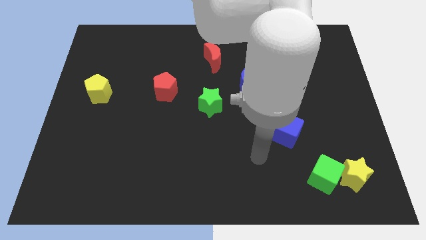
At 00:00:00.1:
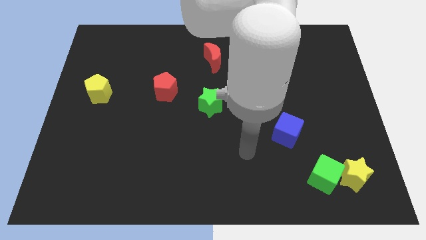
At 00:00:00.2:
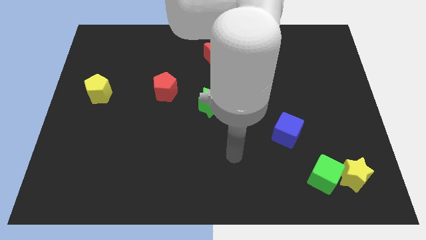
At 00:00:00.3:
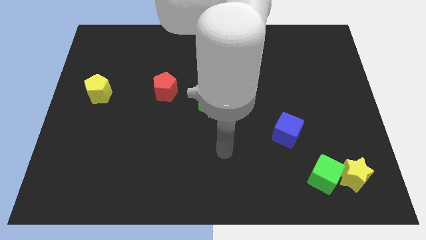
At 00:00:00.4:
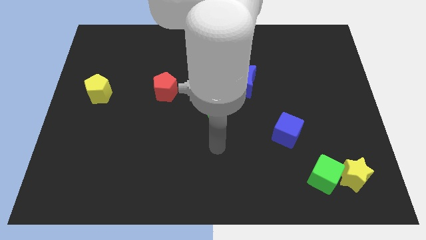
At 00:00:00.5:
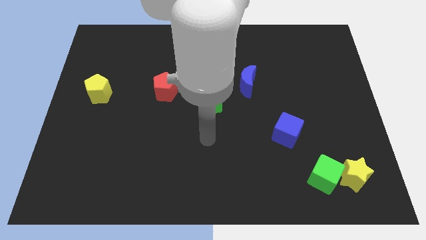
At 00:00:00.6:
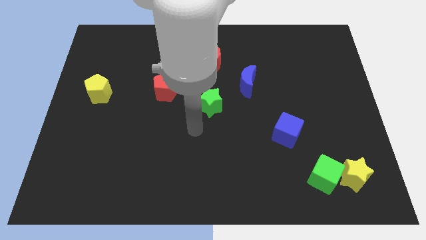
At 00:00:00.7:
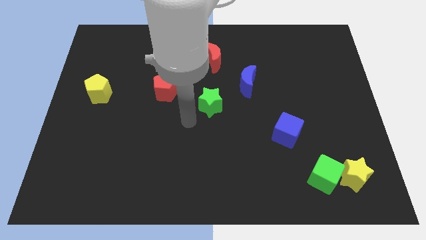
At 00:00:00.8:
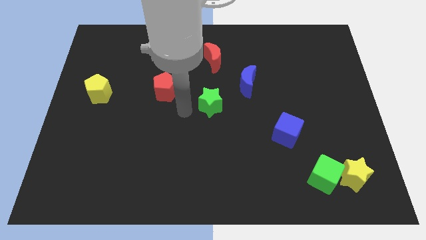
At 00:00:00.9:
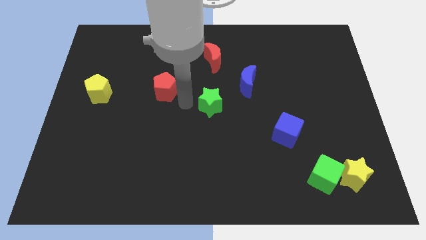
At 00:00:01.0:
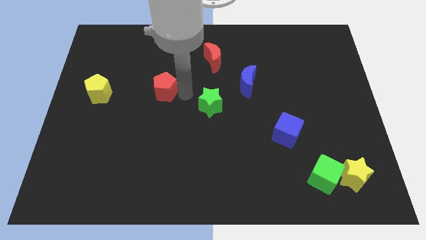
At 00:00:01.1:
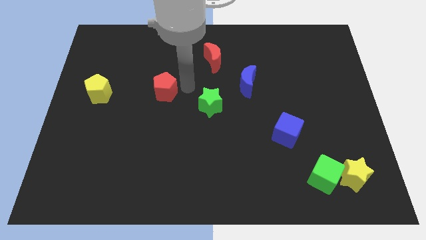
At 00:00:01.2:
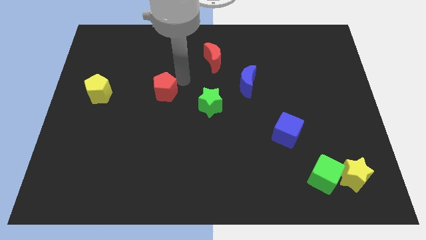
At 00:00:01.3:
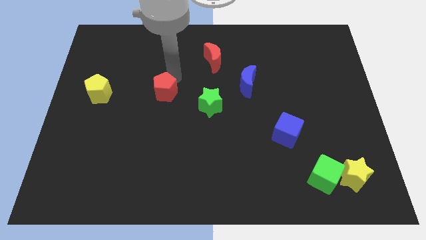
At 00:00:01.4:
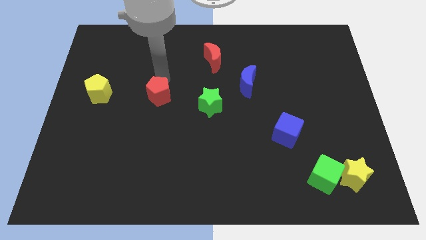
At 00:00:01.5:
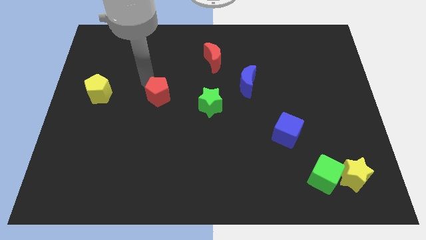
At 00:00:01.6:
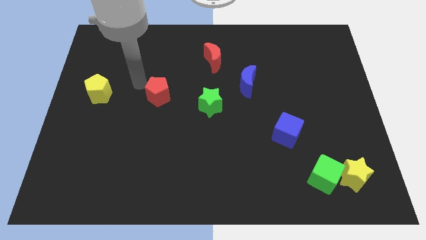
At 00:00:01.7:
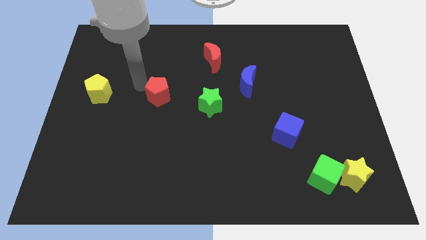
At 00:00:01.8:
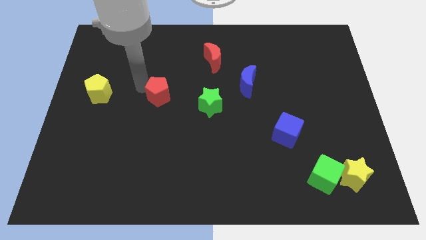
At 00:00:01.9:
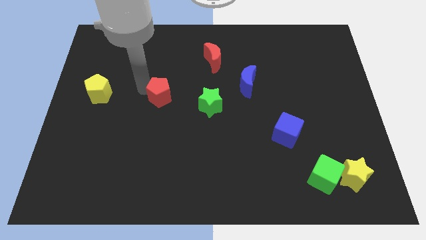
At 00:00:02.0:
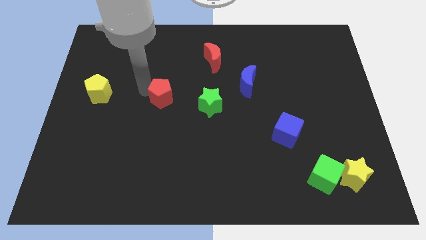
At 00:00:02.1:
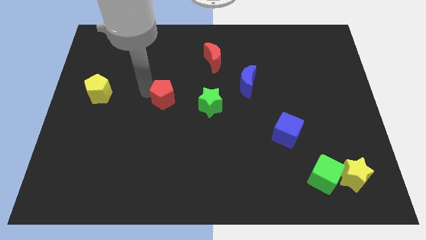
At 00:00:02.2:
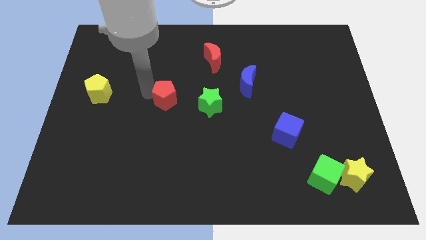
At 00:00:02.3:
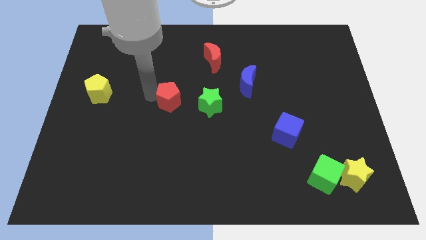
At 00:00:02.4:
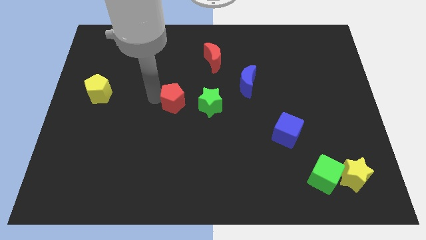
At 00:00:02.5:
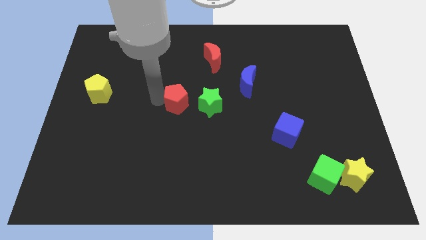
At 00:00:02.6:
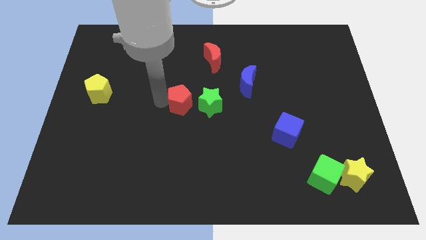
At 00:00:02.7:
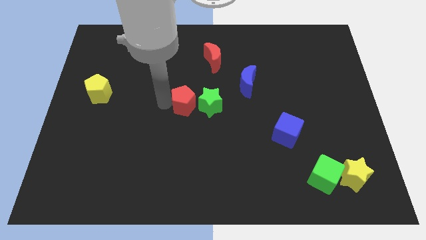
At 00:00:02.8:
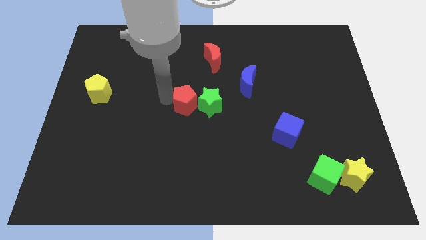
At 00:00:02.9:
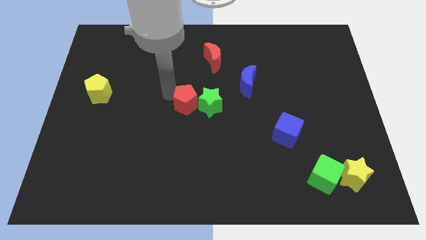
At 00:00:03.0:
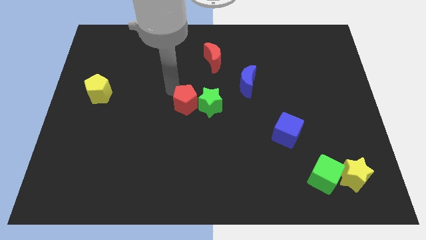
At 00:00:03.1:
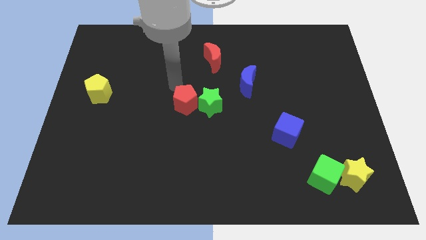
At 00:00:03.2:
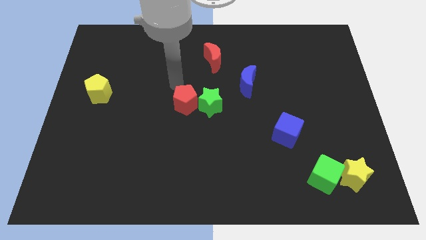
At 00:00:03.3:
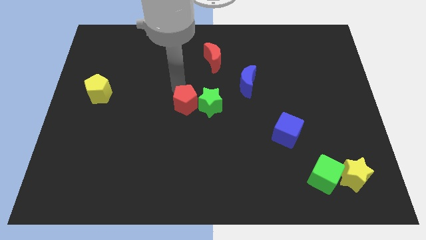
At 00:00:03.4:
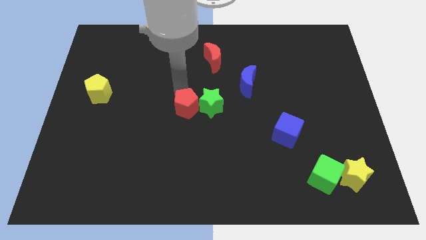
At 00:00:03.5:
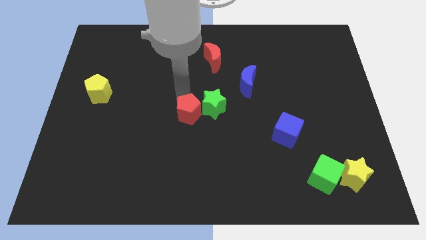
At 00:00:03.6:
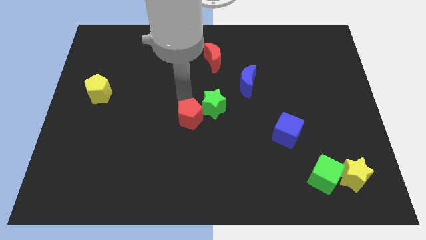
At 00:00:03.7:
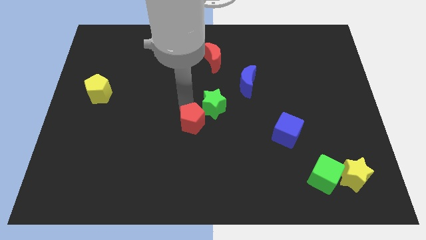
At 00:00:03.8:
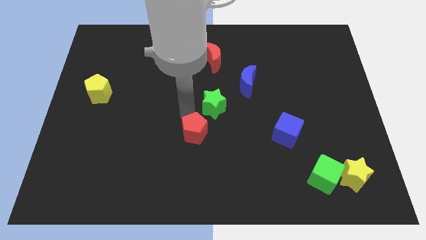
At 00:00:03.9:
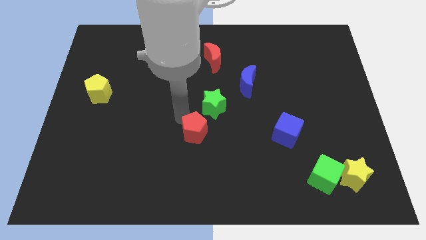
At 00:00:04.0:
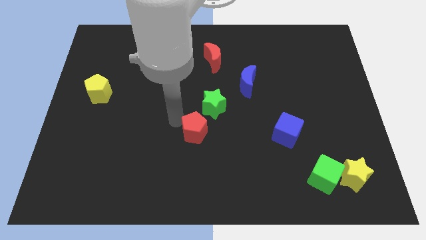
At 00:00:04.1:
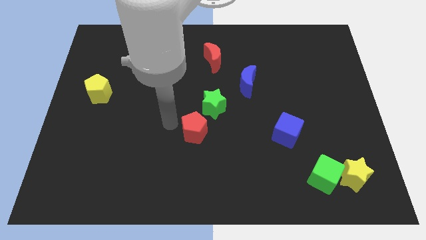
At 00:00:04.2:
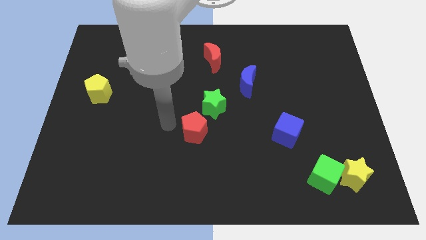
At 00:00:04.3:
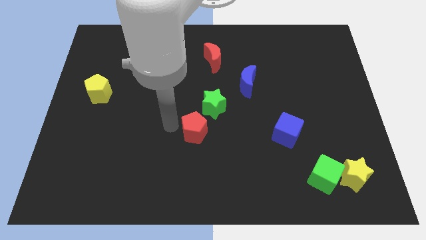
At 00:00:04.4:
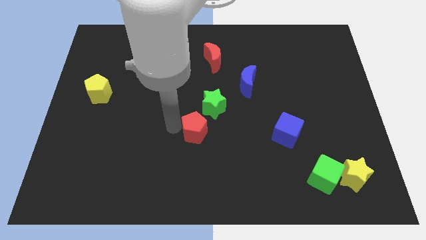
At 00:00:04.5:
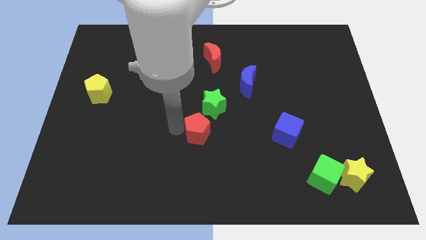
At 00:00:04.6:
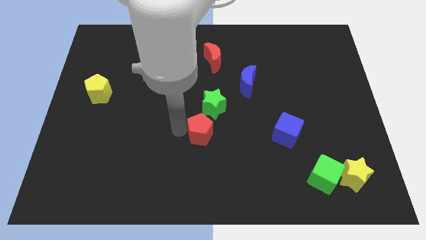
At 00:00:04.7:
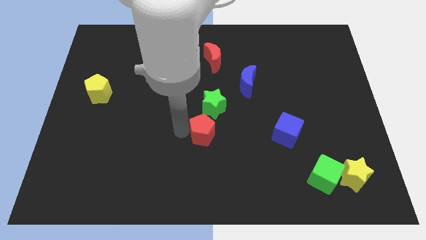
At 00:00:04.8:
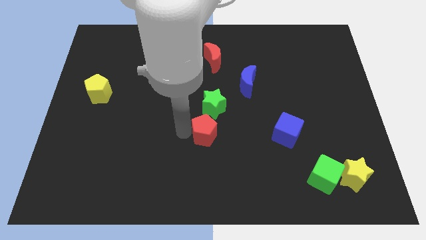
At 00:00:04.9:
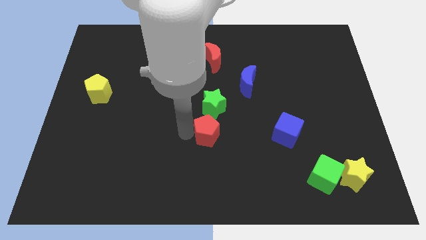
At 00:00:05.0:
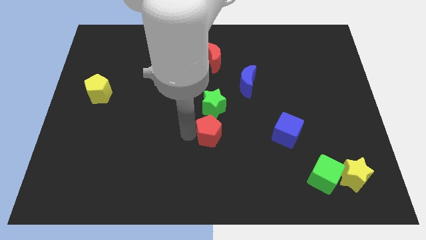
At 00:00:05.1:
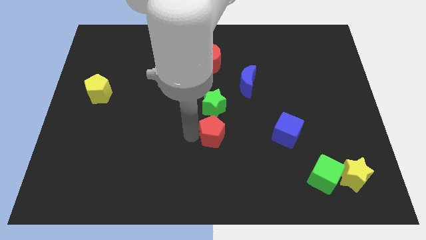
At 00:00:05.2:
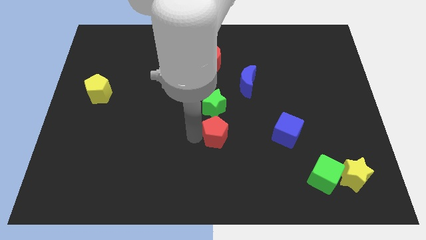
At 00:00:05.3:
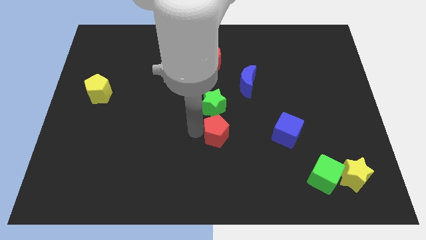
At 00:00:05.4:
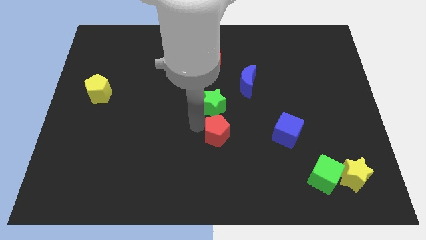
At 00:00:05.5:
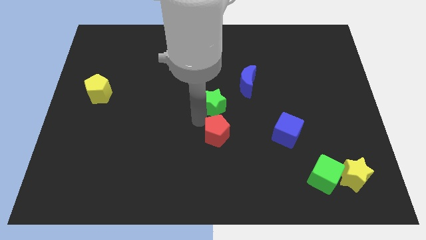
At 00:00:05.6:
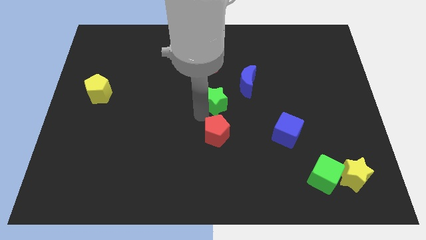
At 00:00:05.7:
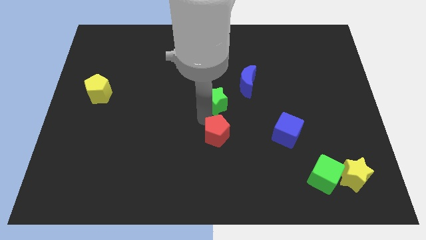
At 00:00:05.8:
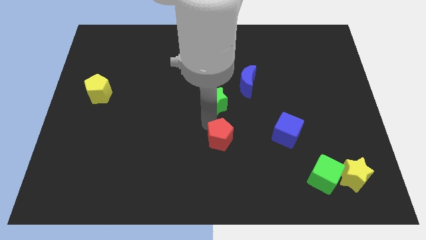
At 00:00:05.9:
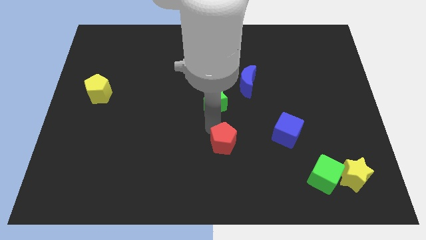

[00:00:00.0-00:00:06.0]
push the red pentagon diagonally downwards and to the right

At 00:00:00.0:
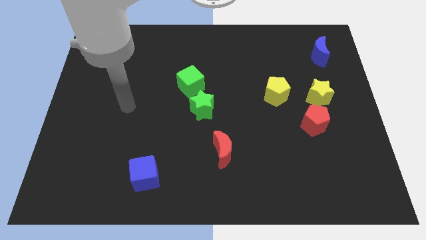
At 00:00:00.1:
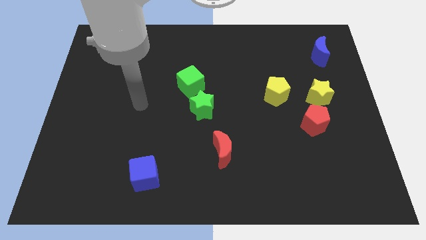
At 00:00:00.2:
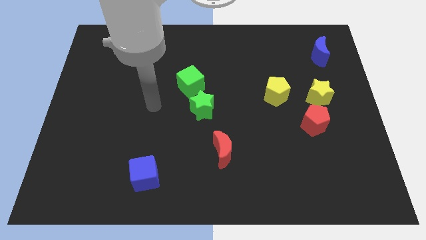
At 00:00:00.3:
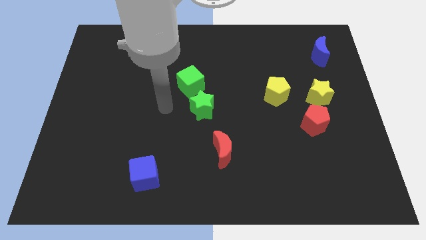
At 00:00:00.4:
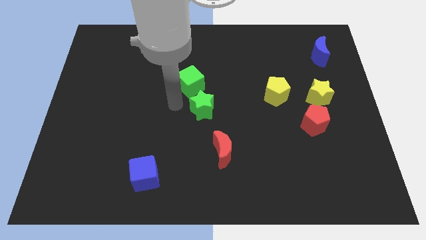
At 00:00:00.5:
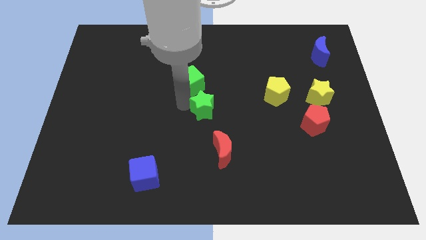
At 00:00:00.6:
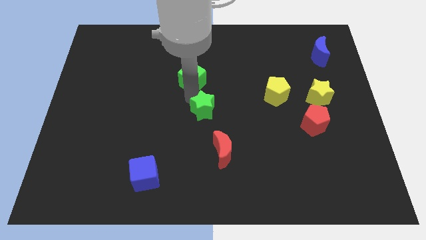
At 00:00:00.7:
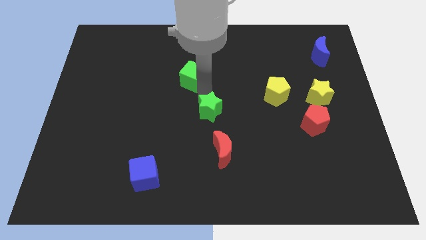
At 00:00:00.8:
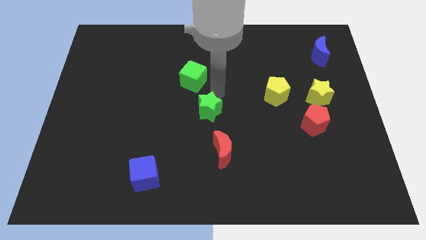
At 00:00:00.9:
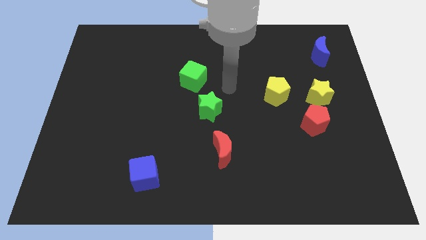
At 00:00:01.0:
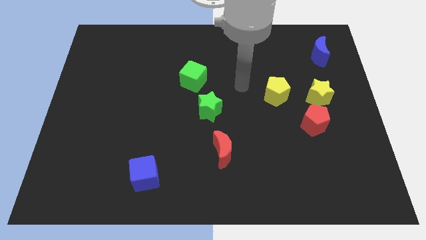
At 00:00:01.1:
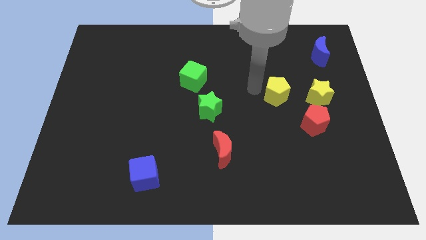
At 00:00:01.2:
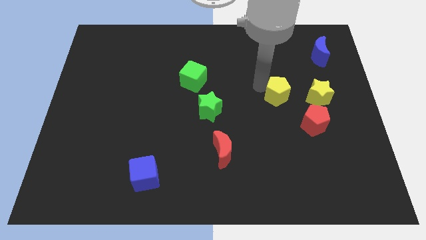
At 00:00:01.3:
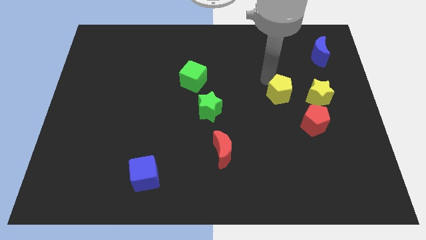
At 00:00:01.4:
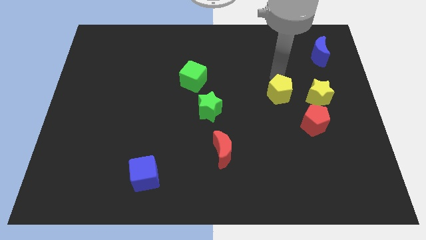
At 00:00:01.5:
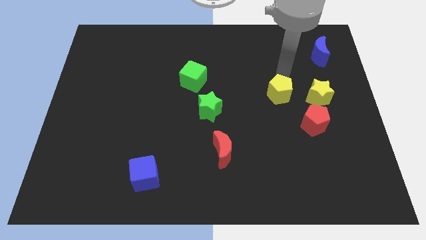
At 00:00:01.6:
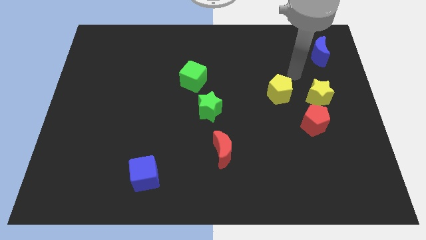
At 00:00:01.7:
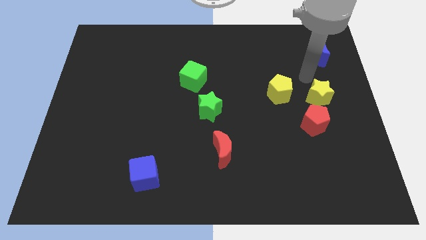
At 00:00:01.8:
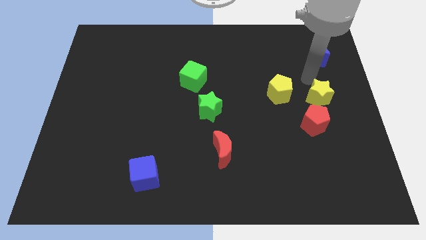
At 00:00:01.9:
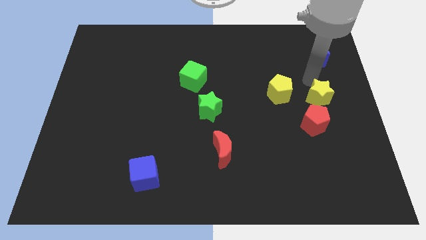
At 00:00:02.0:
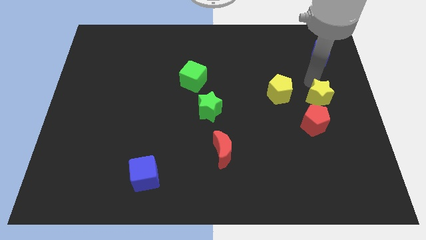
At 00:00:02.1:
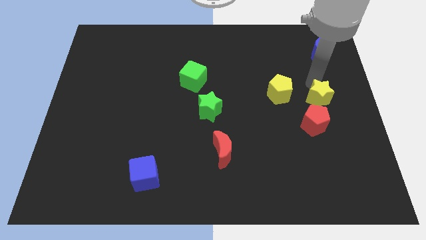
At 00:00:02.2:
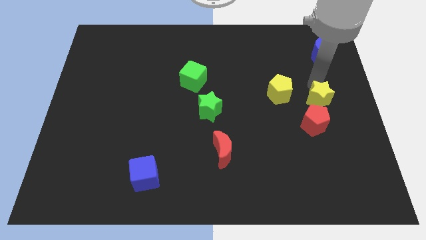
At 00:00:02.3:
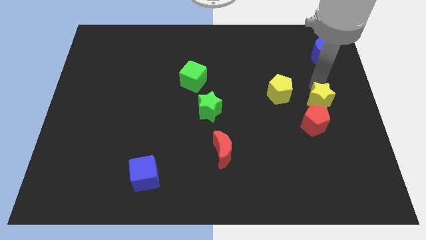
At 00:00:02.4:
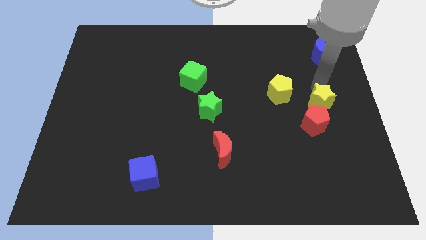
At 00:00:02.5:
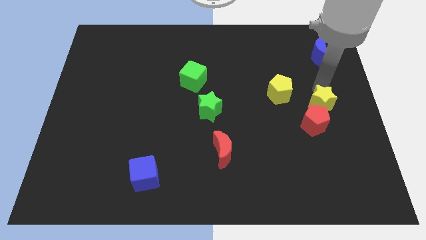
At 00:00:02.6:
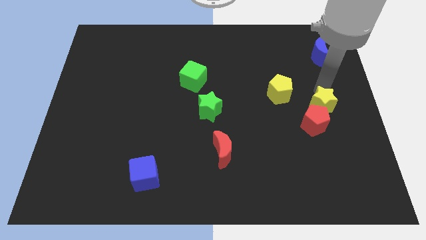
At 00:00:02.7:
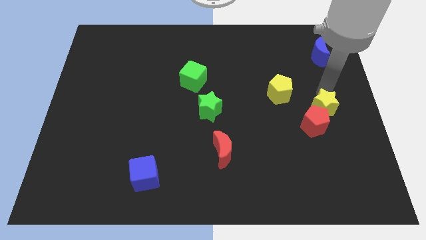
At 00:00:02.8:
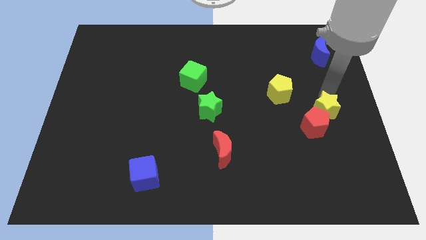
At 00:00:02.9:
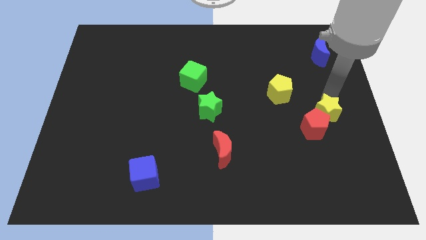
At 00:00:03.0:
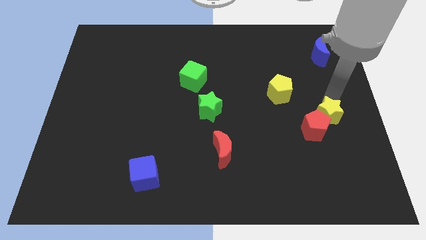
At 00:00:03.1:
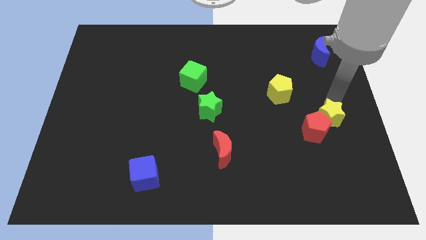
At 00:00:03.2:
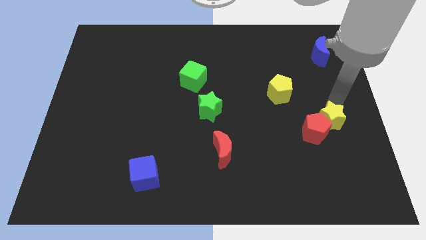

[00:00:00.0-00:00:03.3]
push the yellow star down slightly
